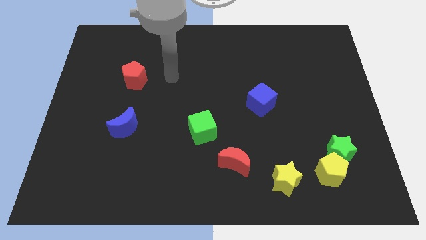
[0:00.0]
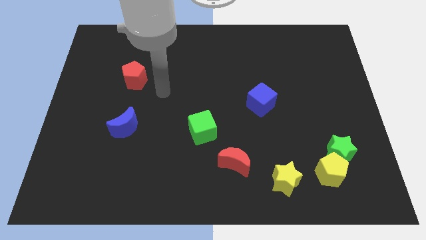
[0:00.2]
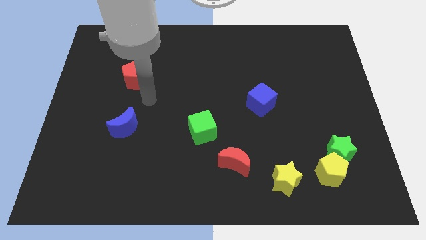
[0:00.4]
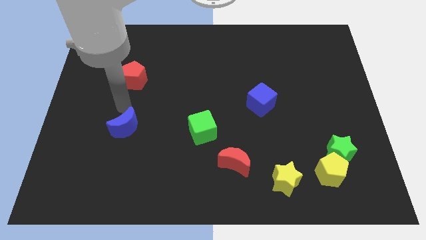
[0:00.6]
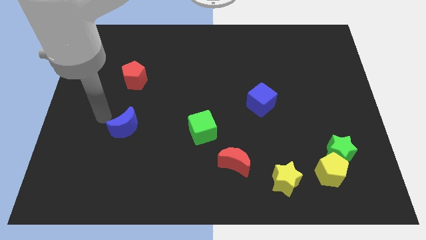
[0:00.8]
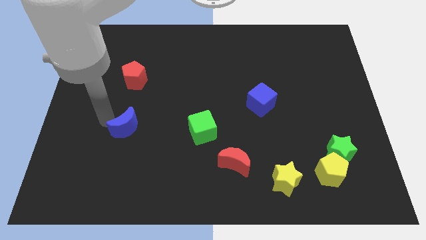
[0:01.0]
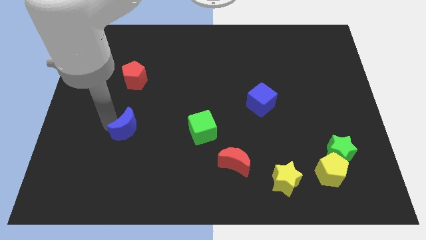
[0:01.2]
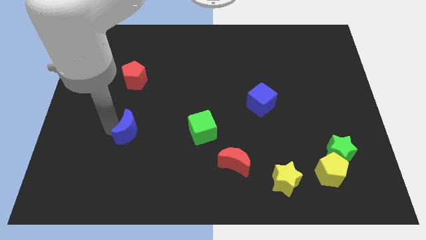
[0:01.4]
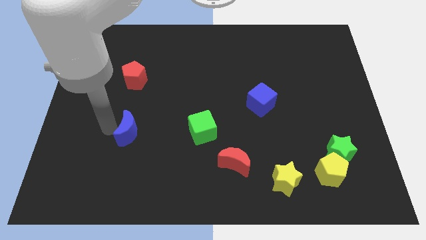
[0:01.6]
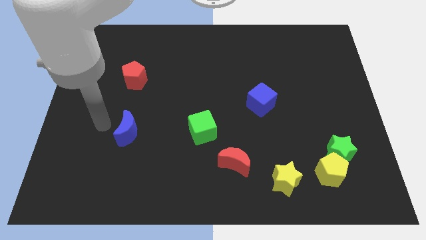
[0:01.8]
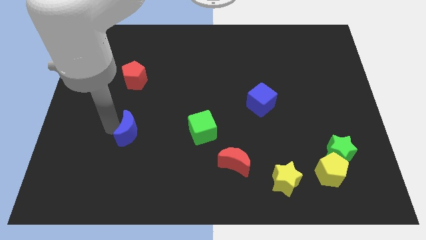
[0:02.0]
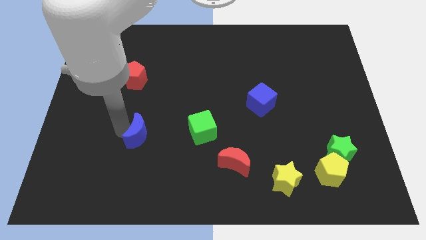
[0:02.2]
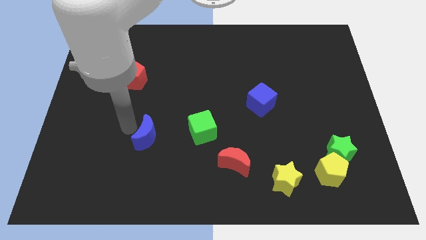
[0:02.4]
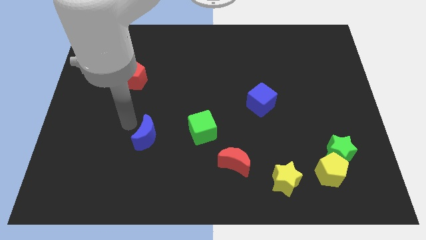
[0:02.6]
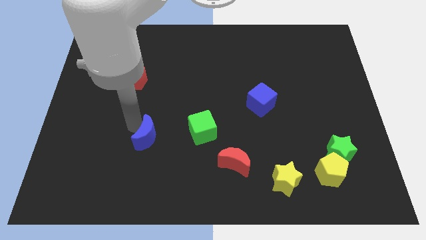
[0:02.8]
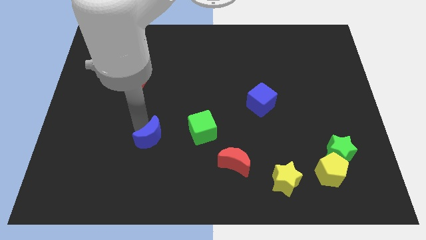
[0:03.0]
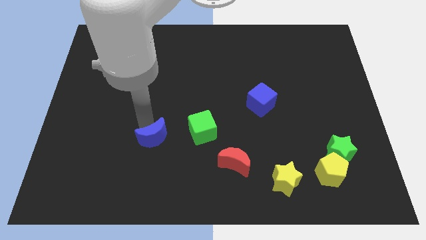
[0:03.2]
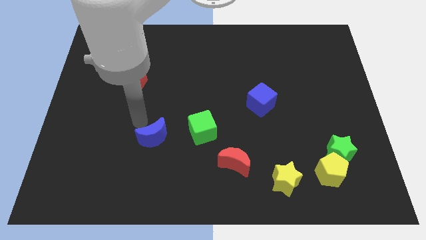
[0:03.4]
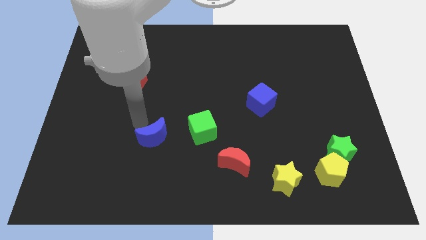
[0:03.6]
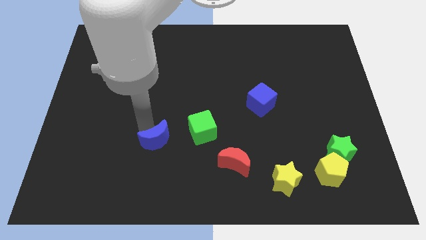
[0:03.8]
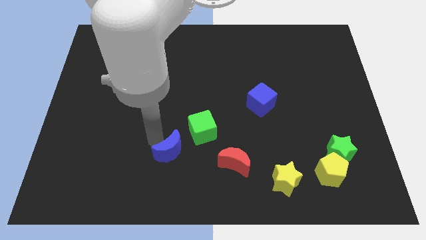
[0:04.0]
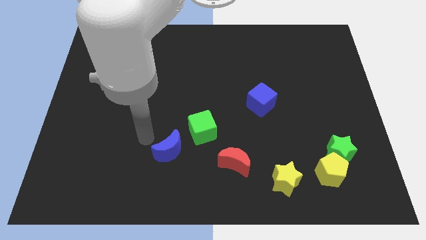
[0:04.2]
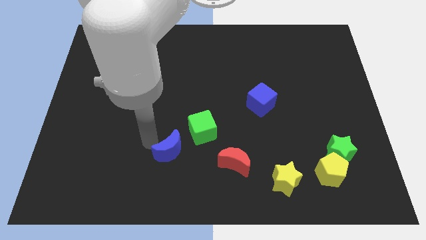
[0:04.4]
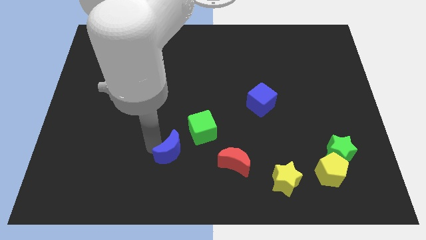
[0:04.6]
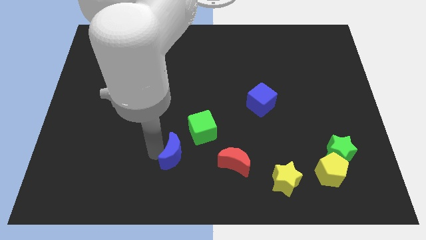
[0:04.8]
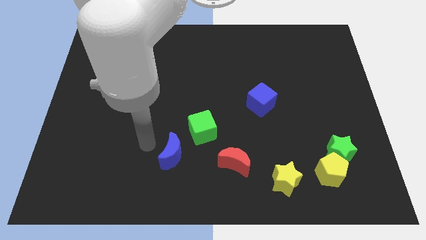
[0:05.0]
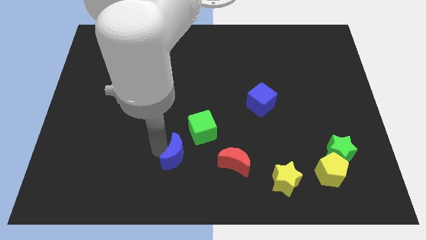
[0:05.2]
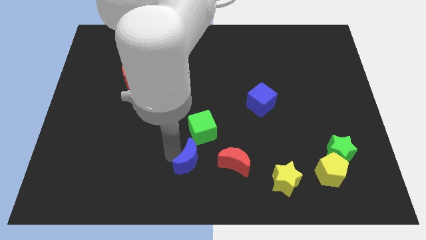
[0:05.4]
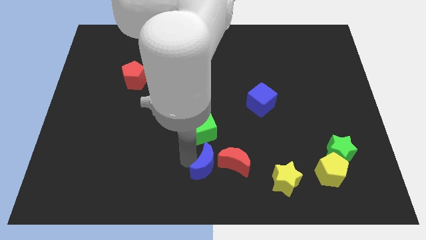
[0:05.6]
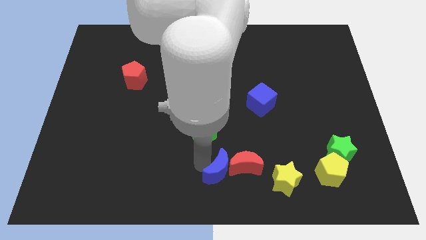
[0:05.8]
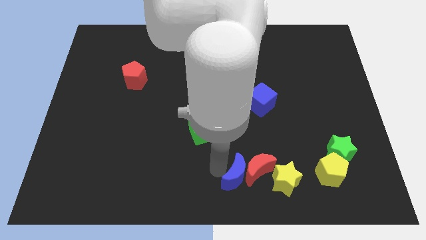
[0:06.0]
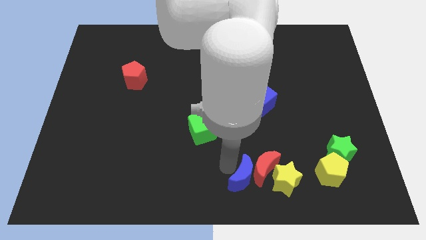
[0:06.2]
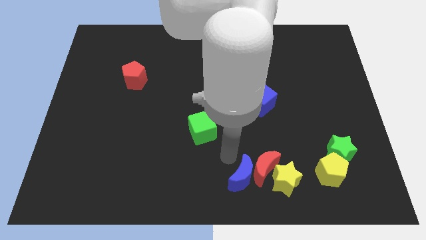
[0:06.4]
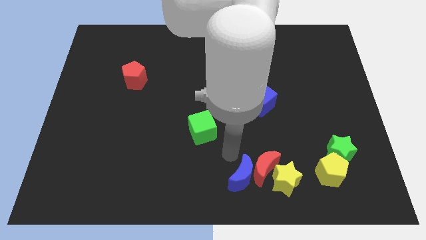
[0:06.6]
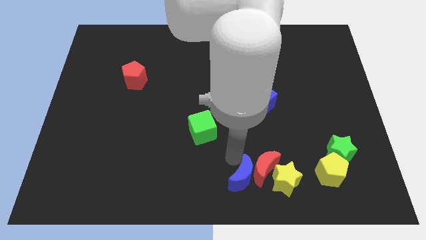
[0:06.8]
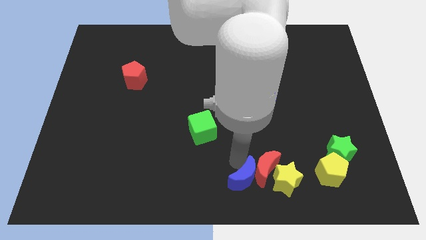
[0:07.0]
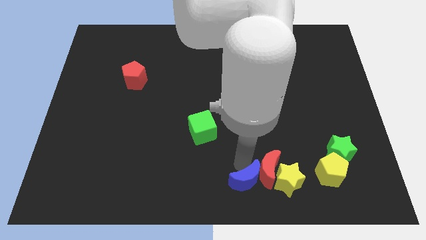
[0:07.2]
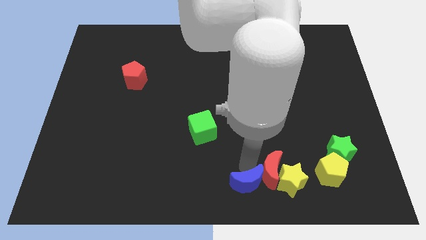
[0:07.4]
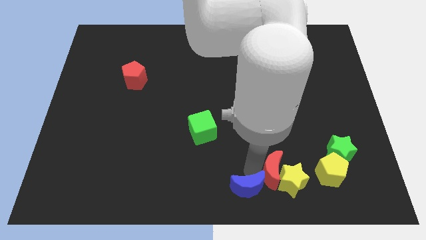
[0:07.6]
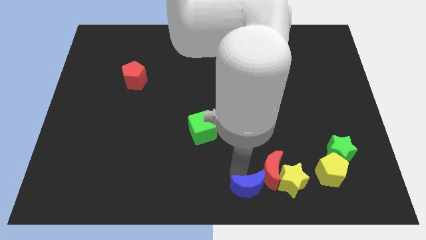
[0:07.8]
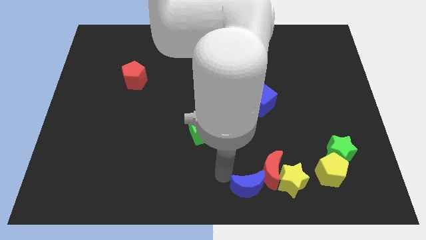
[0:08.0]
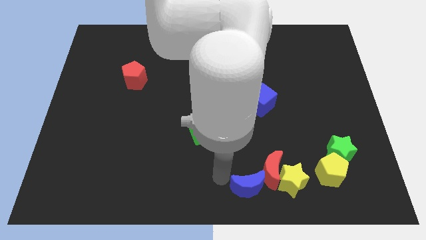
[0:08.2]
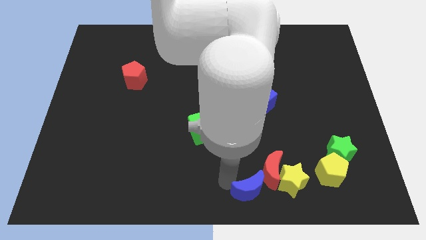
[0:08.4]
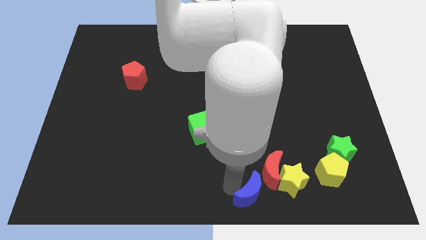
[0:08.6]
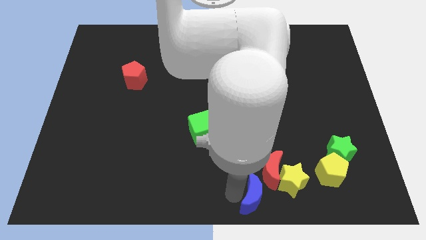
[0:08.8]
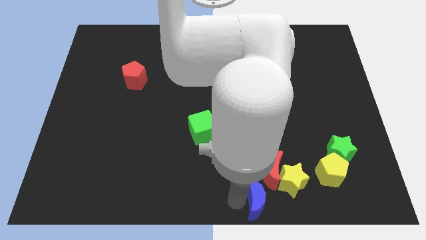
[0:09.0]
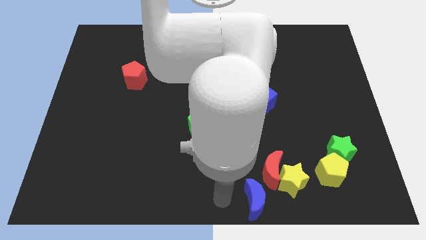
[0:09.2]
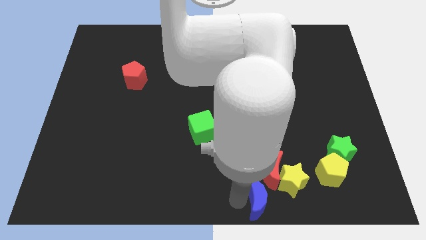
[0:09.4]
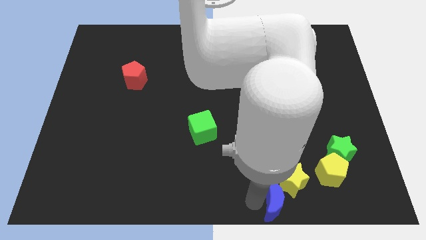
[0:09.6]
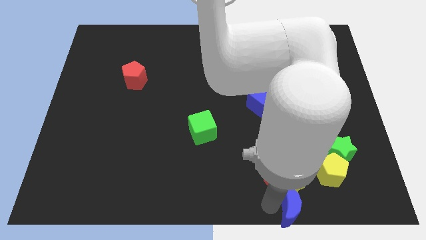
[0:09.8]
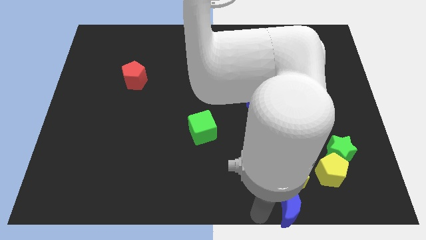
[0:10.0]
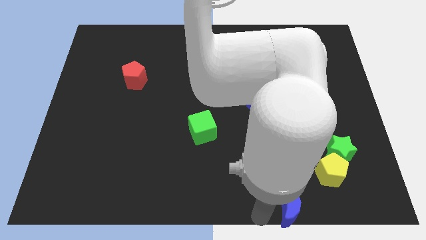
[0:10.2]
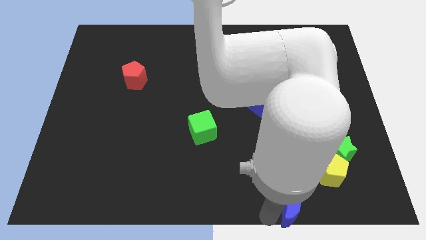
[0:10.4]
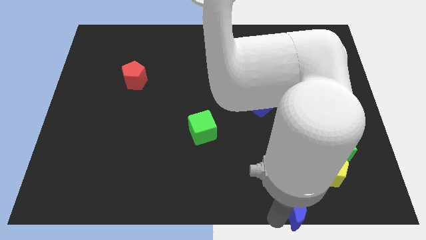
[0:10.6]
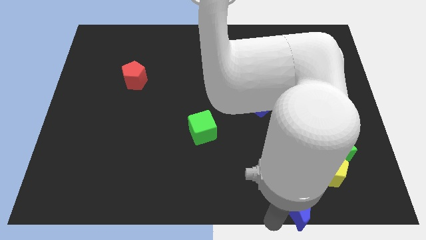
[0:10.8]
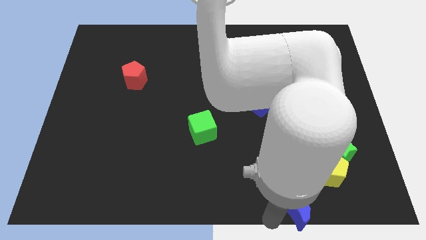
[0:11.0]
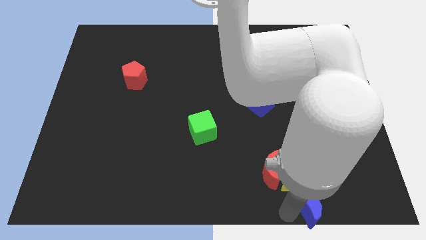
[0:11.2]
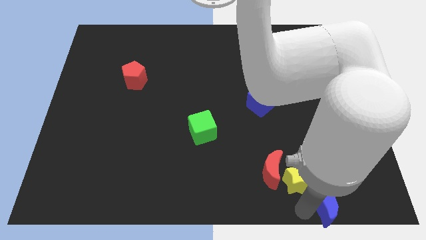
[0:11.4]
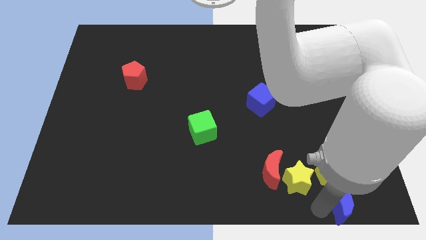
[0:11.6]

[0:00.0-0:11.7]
slide the blue moon just right of the yellow star

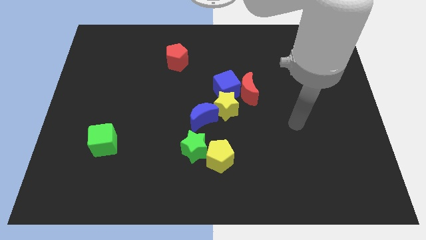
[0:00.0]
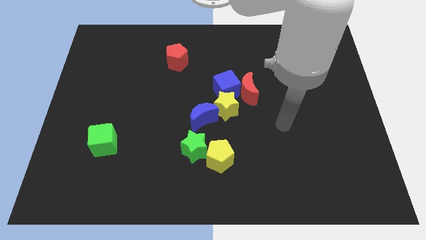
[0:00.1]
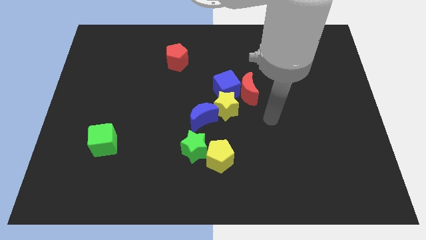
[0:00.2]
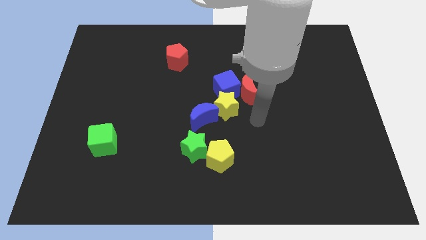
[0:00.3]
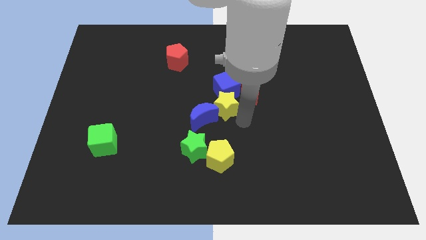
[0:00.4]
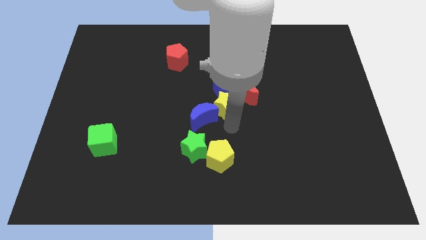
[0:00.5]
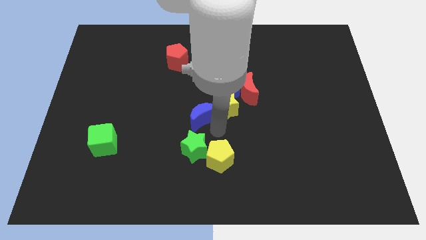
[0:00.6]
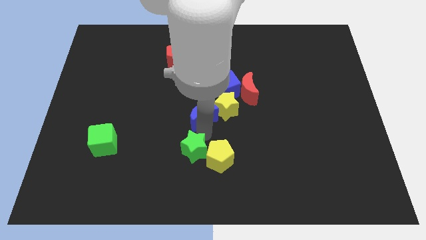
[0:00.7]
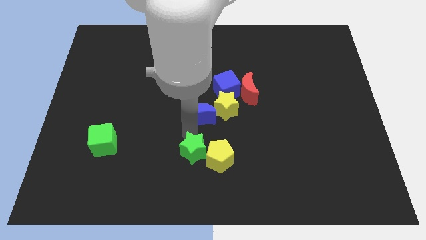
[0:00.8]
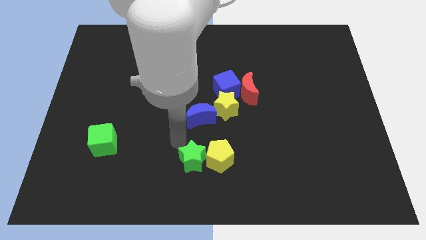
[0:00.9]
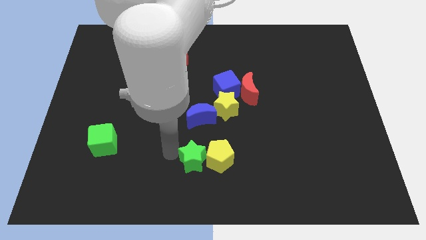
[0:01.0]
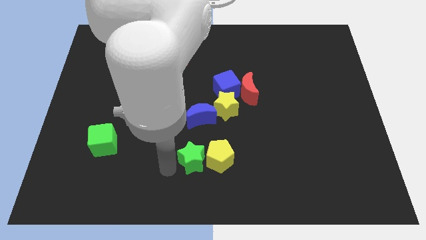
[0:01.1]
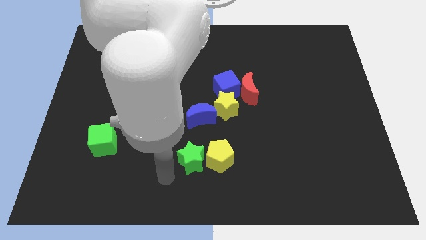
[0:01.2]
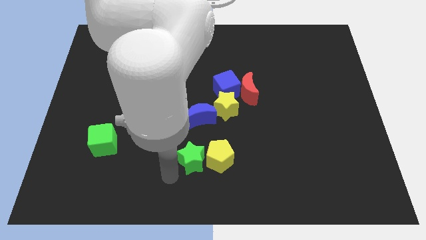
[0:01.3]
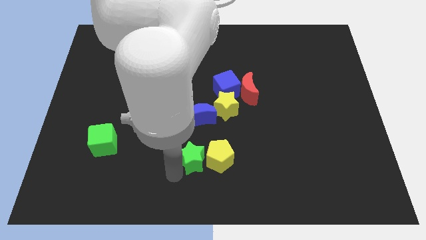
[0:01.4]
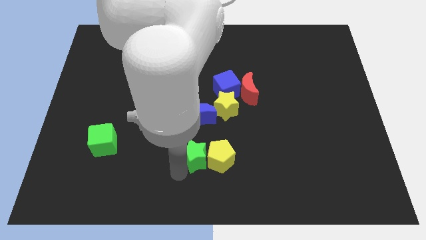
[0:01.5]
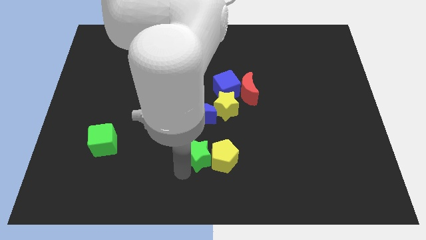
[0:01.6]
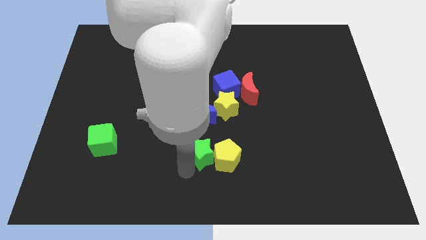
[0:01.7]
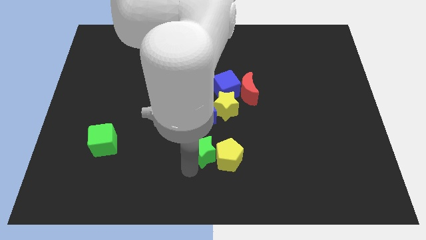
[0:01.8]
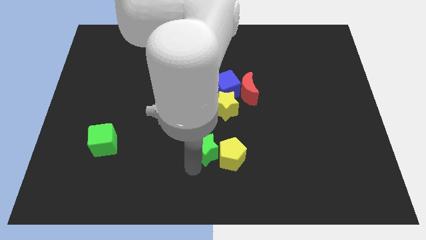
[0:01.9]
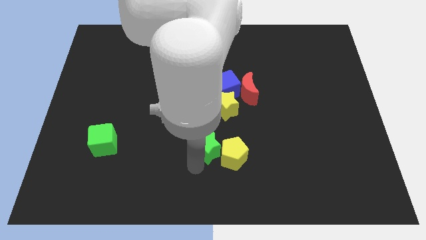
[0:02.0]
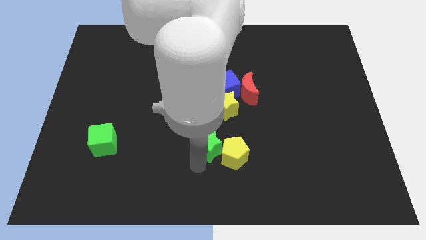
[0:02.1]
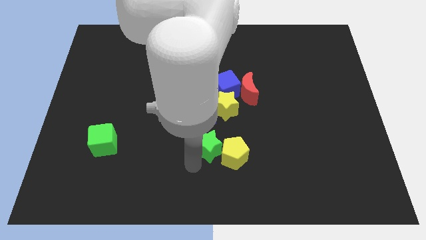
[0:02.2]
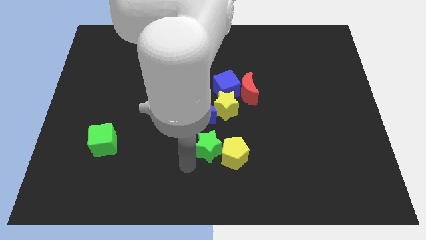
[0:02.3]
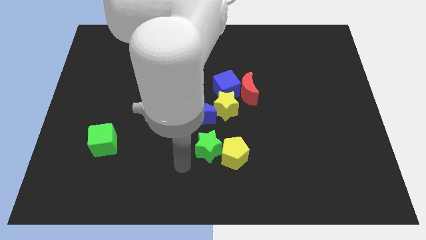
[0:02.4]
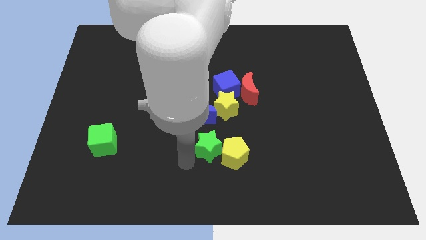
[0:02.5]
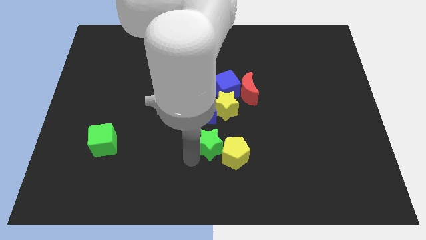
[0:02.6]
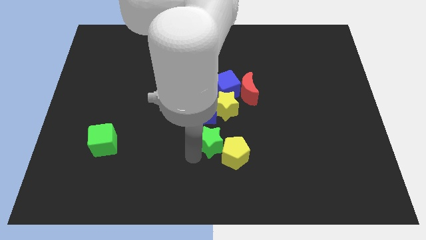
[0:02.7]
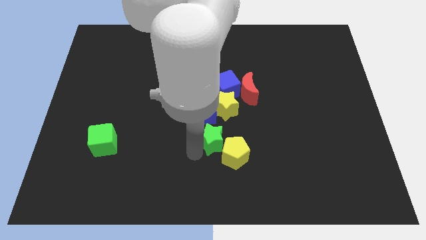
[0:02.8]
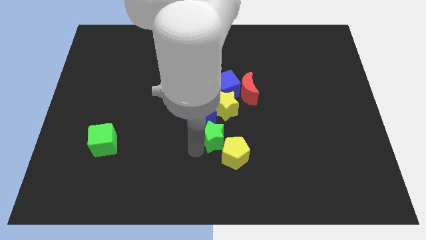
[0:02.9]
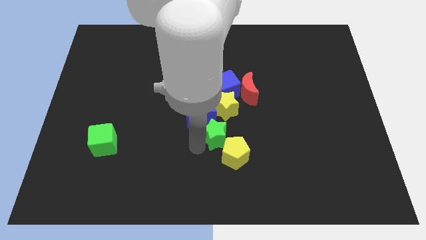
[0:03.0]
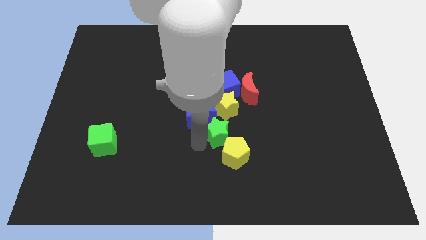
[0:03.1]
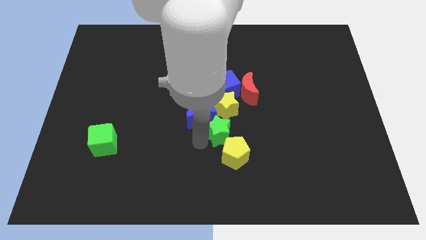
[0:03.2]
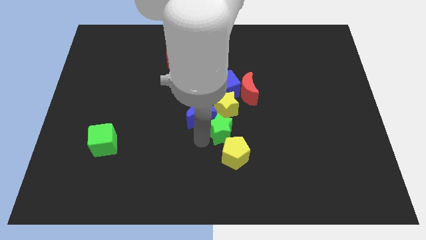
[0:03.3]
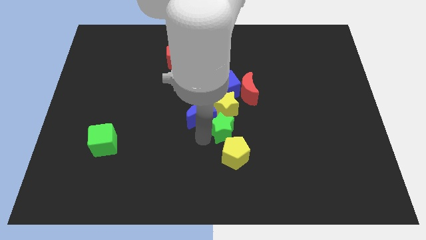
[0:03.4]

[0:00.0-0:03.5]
push the green star to the bottom right of the yellow star
